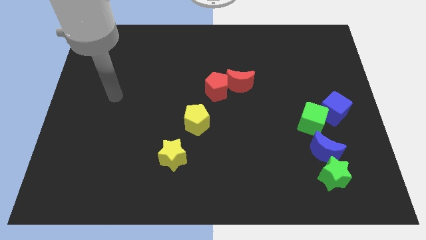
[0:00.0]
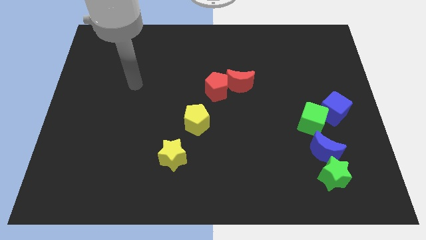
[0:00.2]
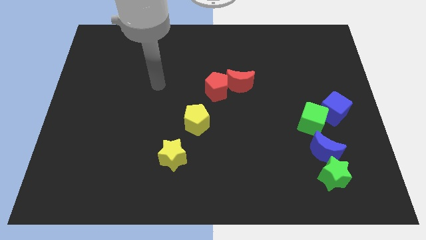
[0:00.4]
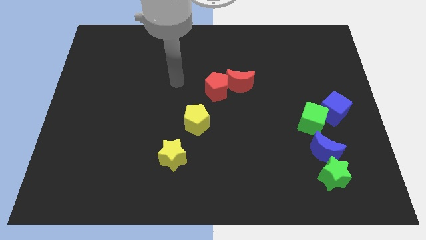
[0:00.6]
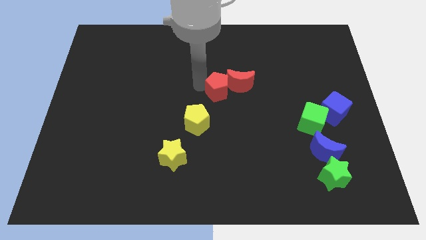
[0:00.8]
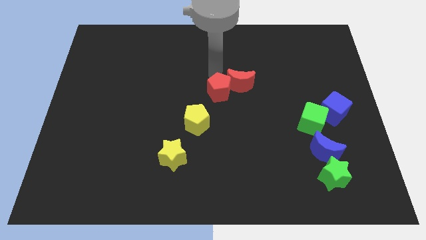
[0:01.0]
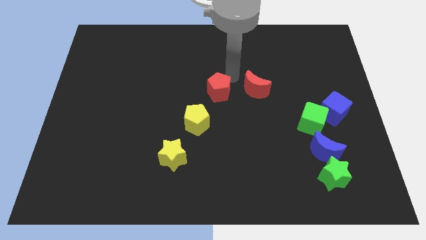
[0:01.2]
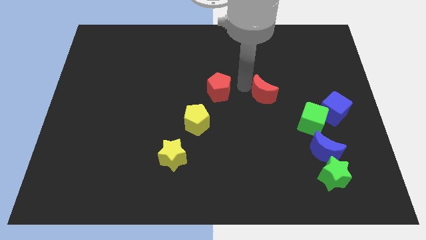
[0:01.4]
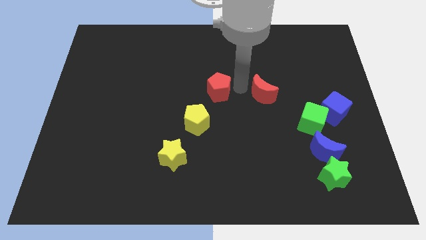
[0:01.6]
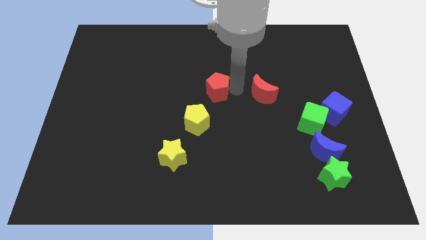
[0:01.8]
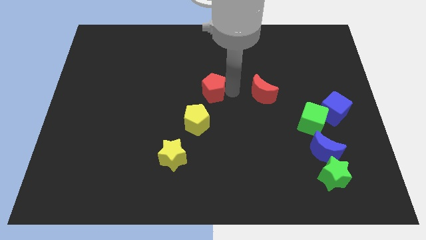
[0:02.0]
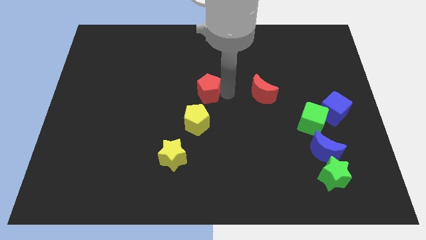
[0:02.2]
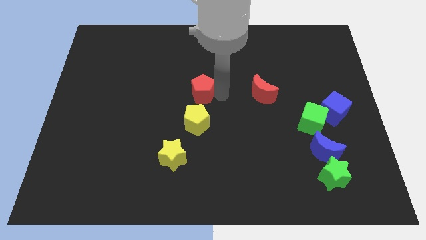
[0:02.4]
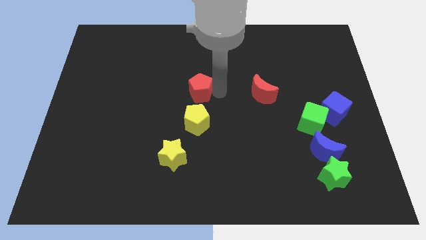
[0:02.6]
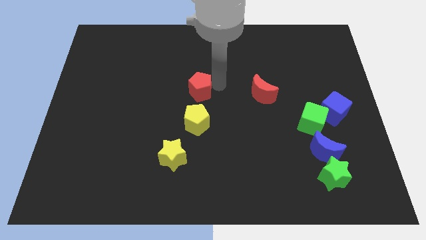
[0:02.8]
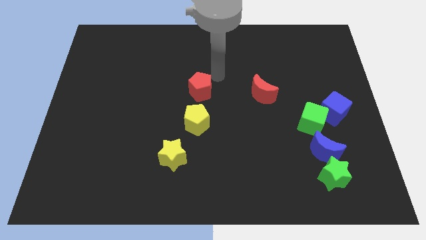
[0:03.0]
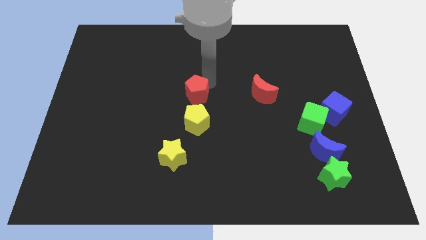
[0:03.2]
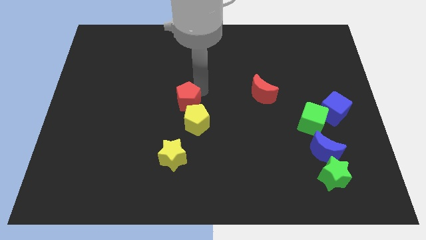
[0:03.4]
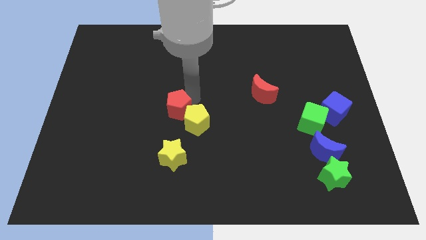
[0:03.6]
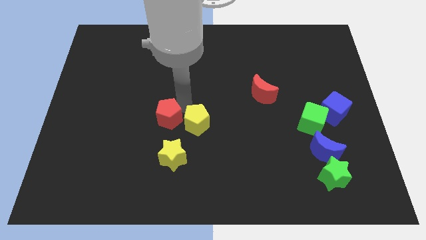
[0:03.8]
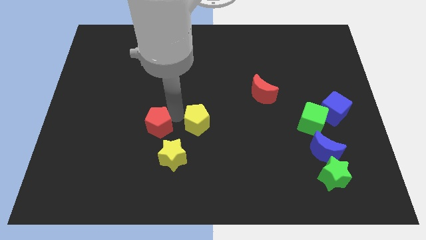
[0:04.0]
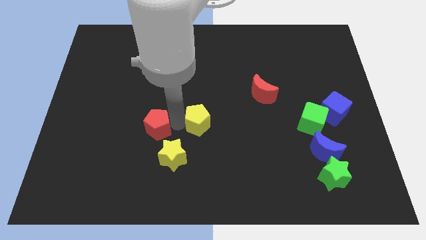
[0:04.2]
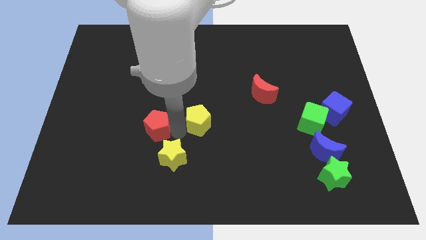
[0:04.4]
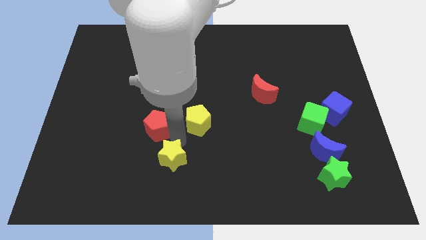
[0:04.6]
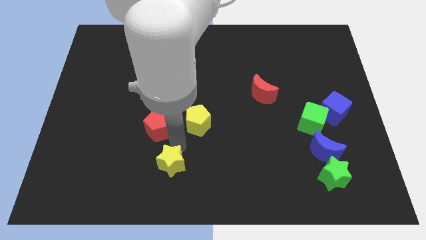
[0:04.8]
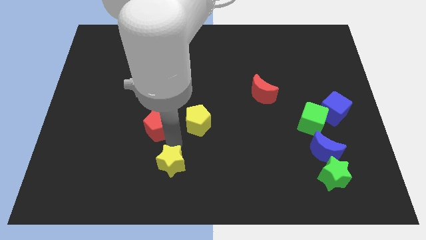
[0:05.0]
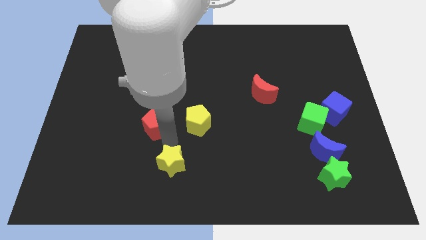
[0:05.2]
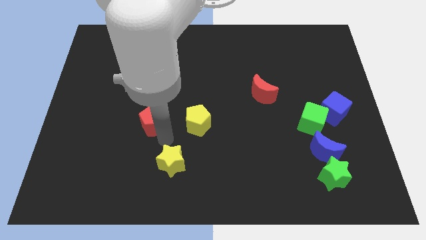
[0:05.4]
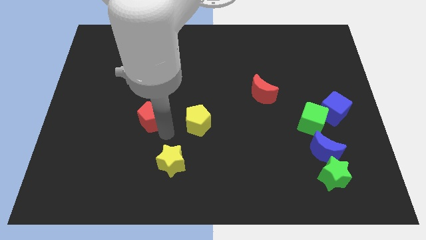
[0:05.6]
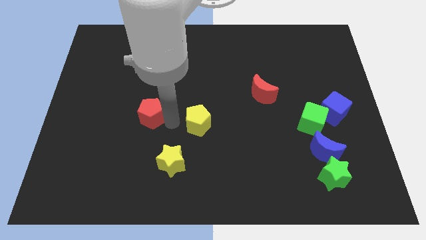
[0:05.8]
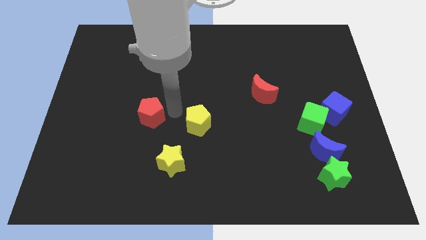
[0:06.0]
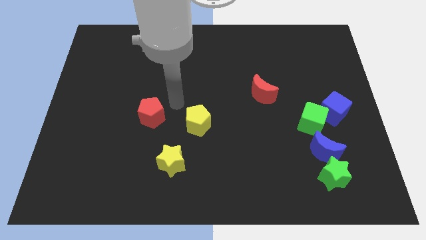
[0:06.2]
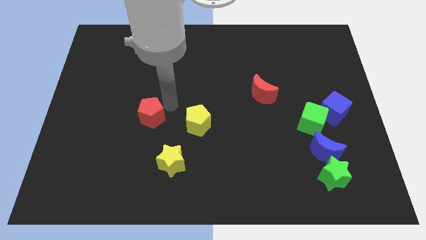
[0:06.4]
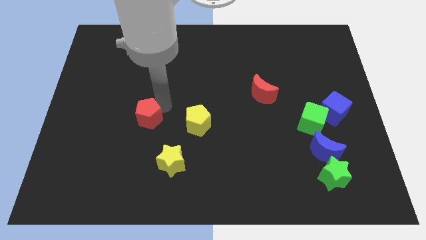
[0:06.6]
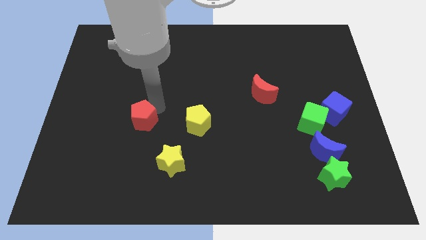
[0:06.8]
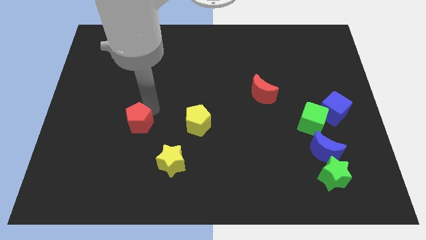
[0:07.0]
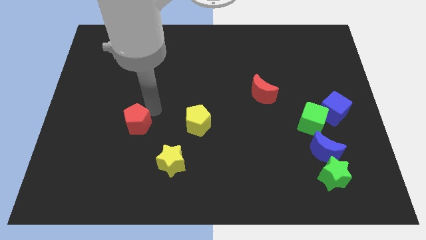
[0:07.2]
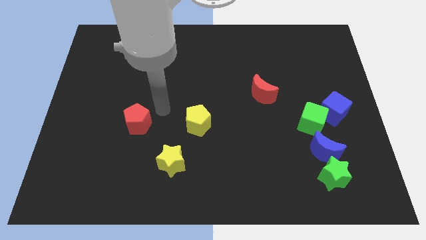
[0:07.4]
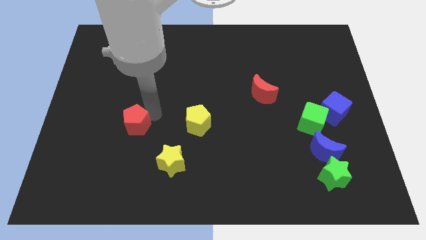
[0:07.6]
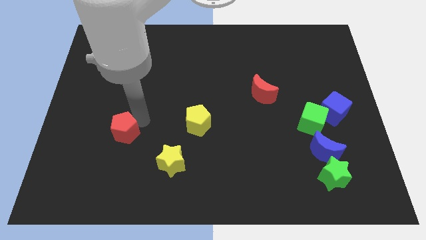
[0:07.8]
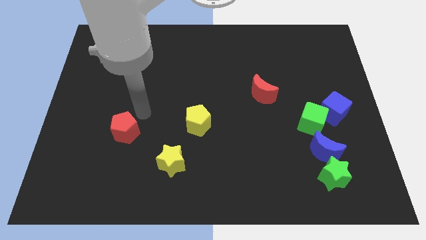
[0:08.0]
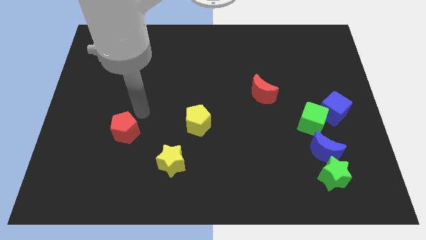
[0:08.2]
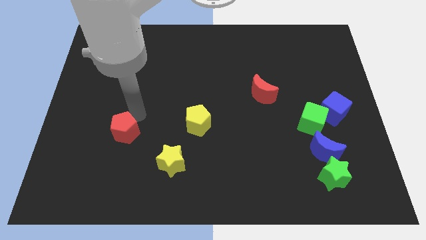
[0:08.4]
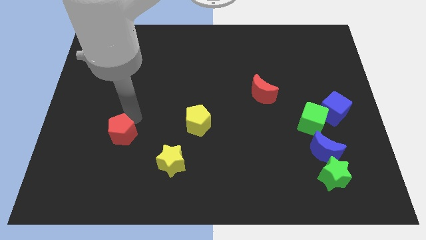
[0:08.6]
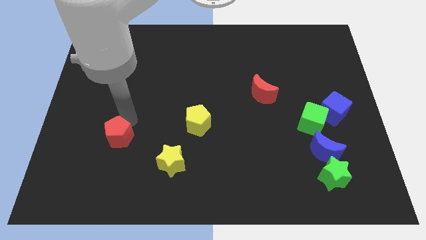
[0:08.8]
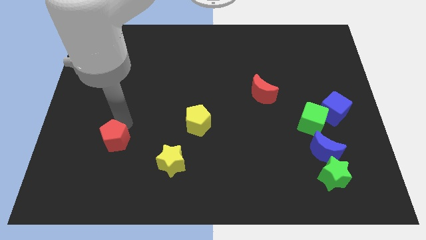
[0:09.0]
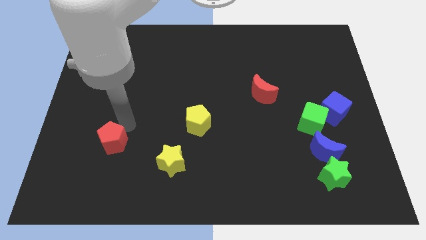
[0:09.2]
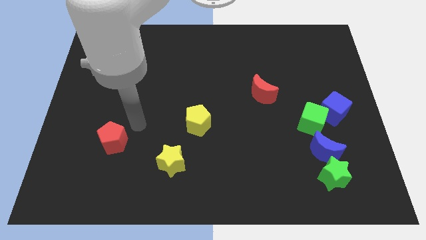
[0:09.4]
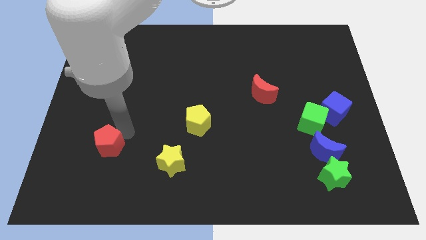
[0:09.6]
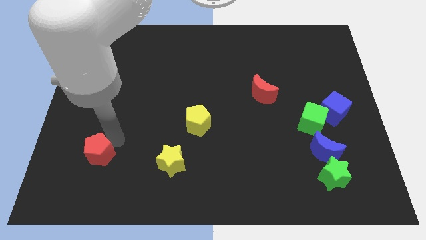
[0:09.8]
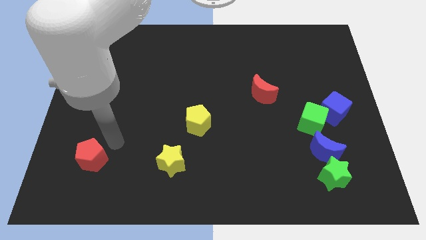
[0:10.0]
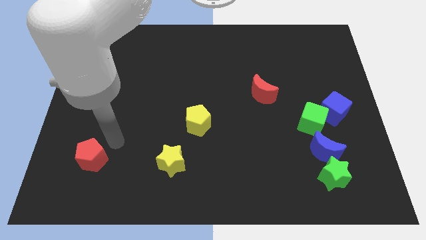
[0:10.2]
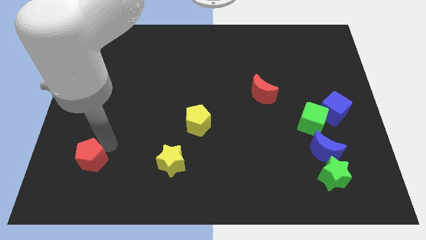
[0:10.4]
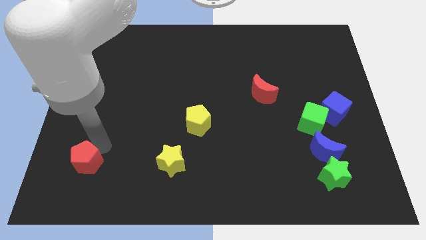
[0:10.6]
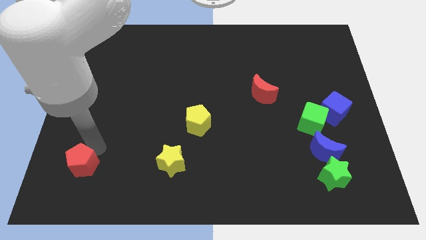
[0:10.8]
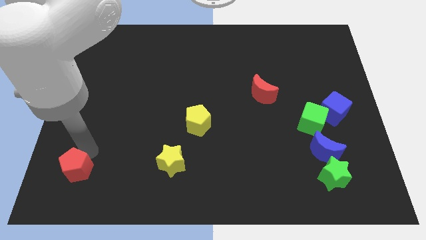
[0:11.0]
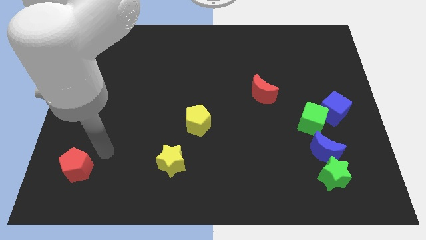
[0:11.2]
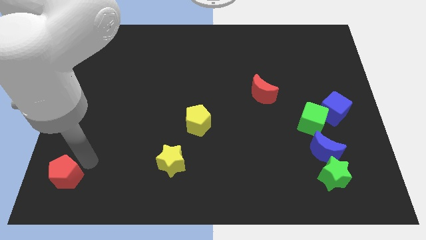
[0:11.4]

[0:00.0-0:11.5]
put the red pentagon to the lower left corner

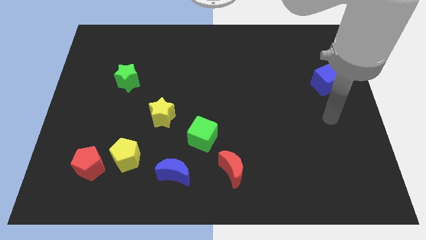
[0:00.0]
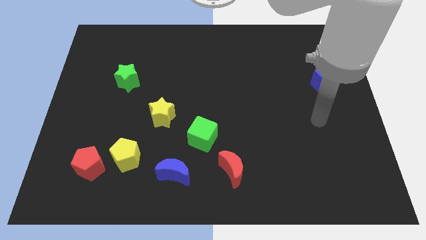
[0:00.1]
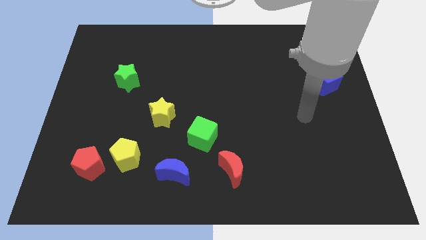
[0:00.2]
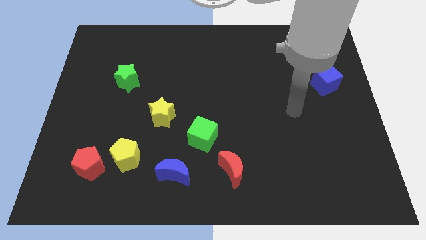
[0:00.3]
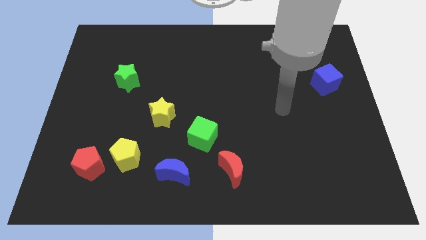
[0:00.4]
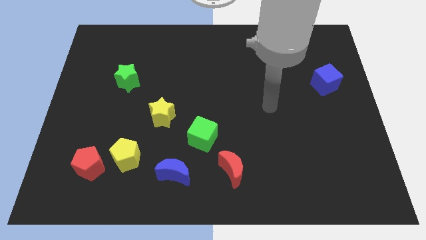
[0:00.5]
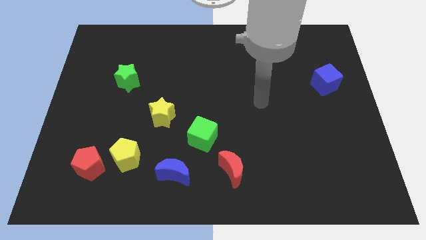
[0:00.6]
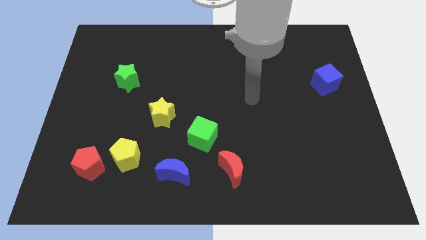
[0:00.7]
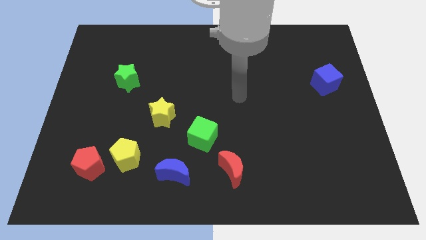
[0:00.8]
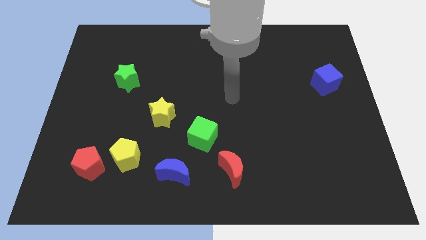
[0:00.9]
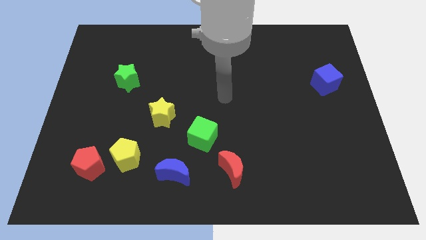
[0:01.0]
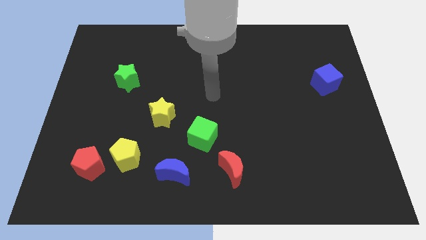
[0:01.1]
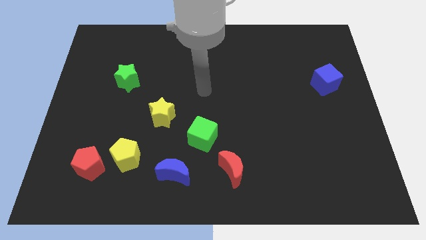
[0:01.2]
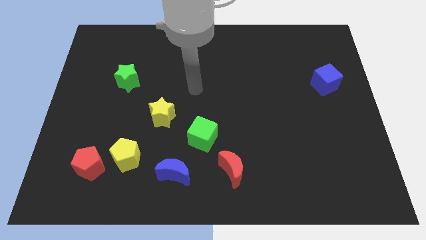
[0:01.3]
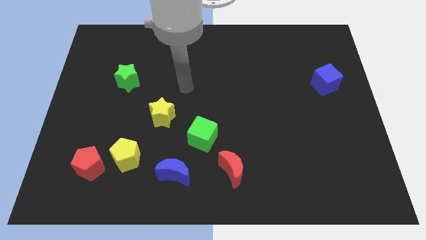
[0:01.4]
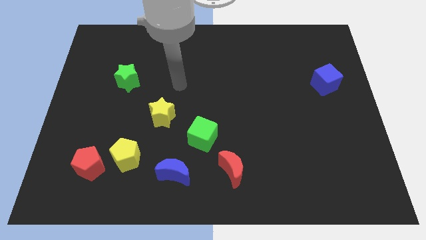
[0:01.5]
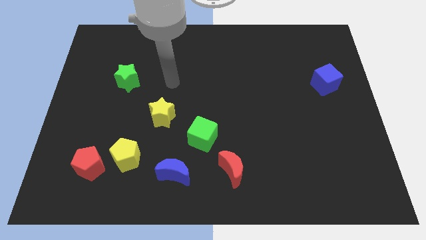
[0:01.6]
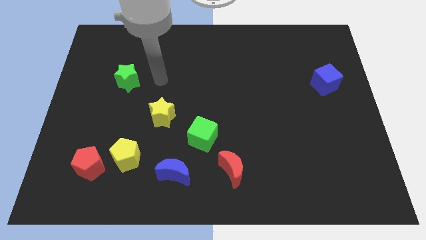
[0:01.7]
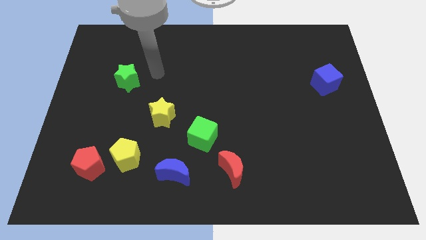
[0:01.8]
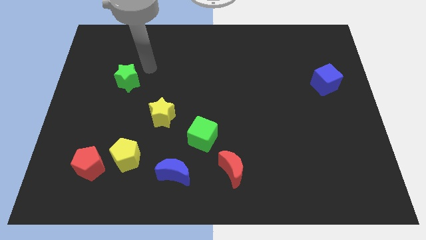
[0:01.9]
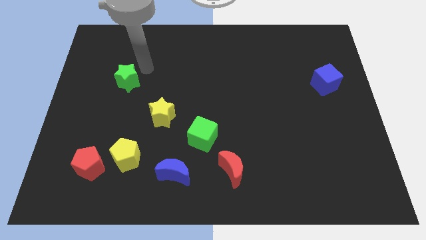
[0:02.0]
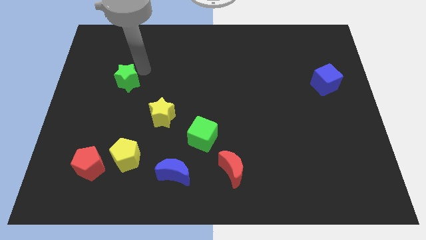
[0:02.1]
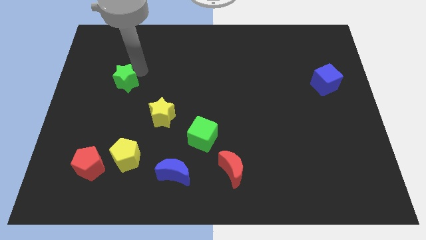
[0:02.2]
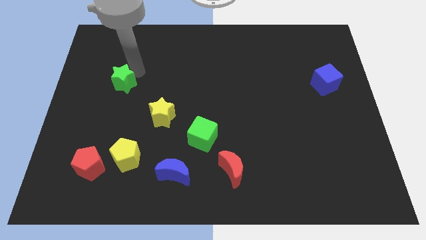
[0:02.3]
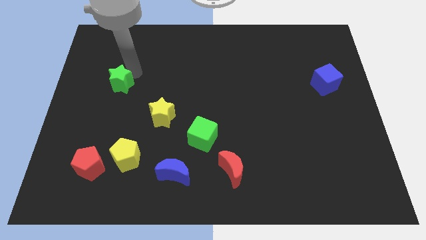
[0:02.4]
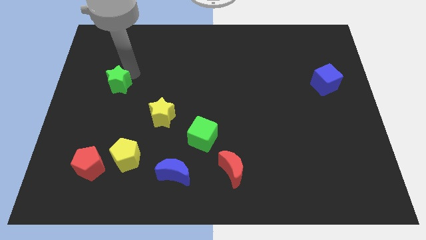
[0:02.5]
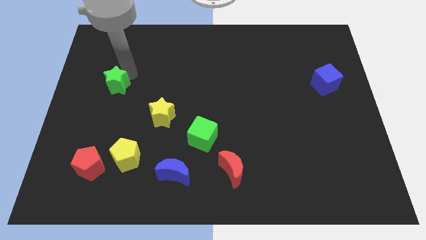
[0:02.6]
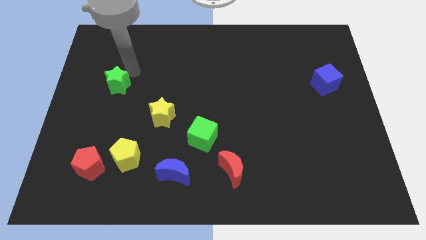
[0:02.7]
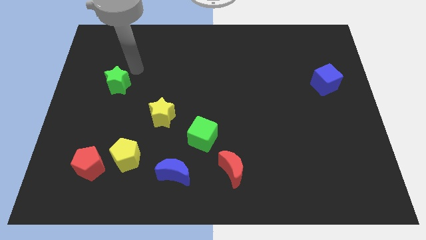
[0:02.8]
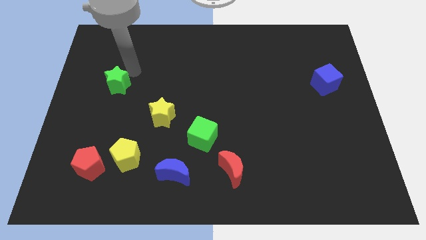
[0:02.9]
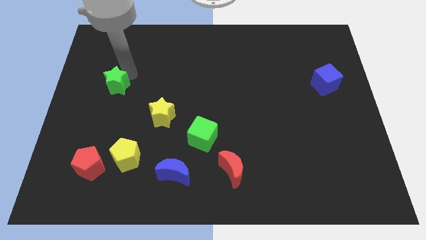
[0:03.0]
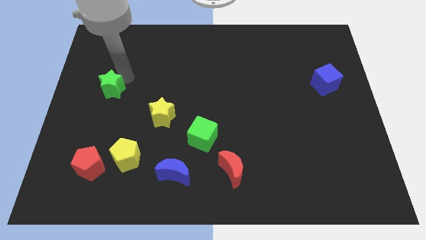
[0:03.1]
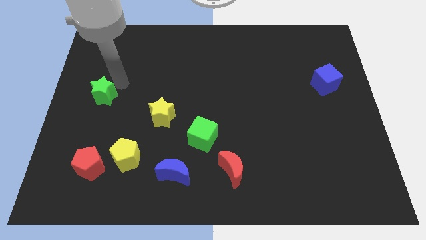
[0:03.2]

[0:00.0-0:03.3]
move the green star to the left side
